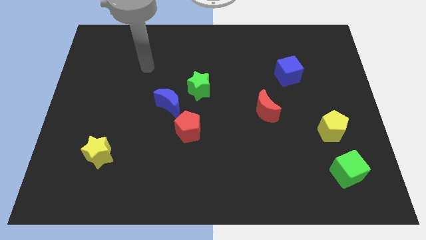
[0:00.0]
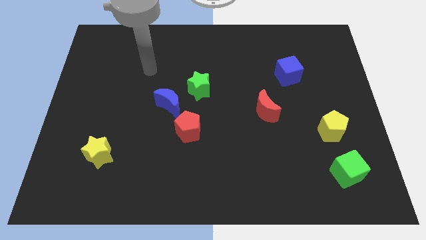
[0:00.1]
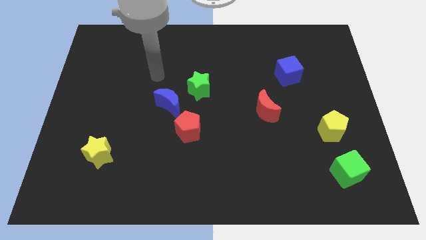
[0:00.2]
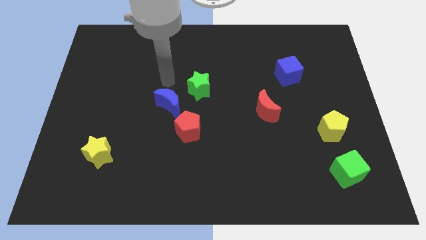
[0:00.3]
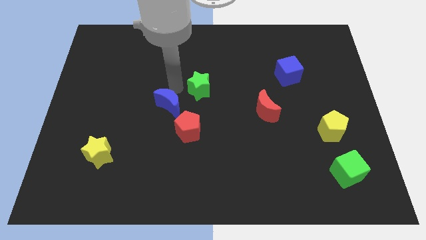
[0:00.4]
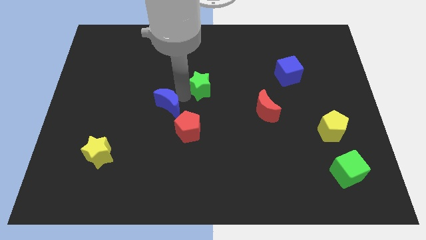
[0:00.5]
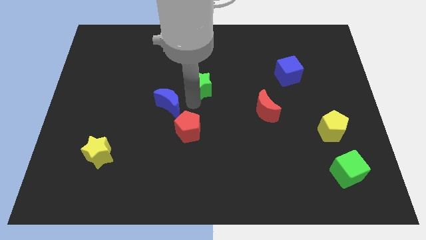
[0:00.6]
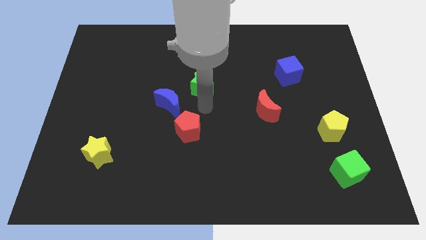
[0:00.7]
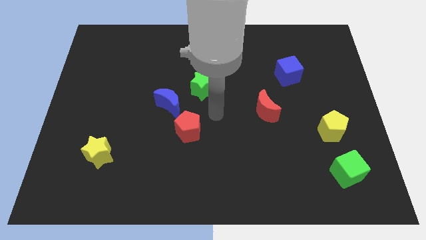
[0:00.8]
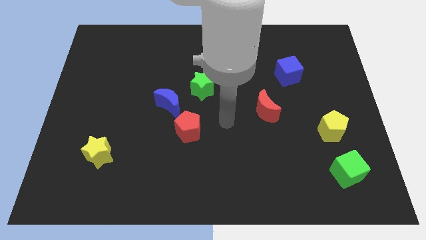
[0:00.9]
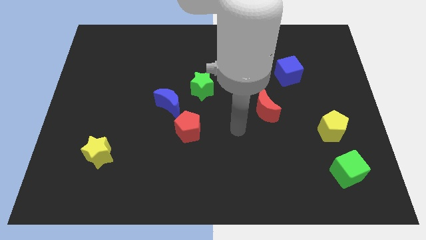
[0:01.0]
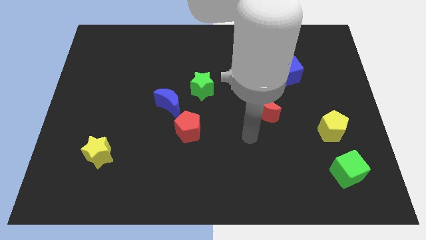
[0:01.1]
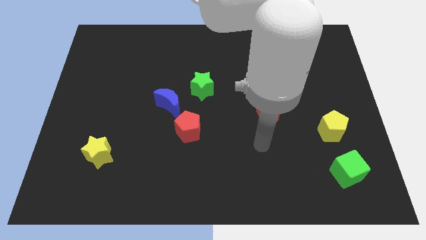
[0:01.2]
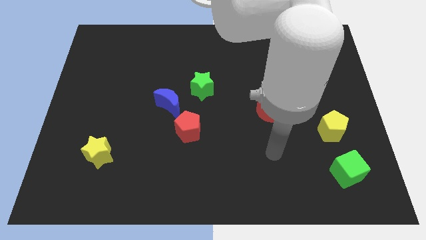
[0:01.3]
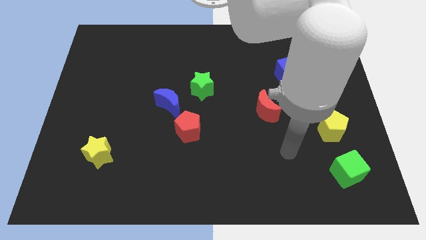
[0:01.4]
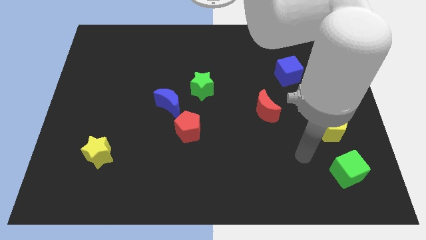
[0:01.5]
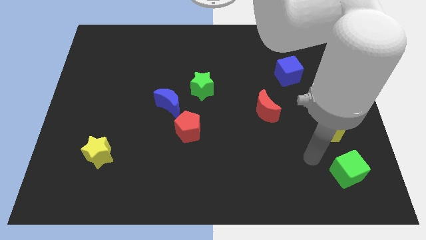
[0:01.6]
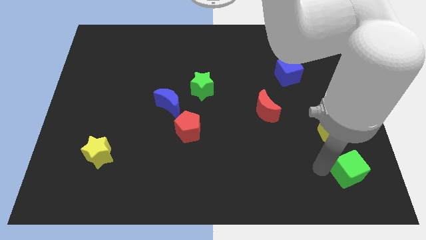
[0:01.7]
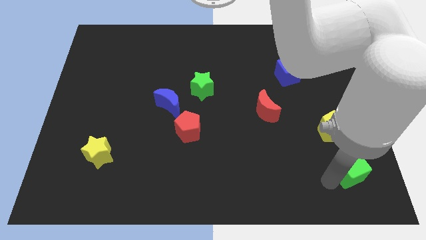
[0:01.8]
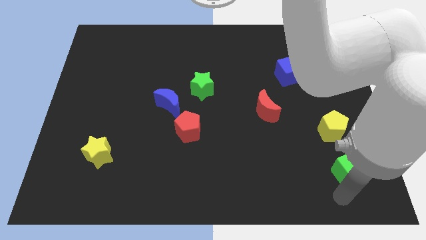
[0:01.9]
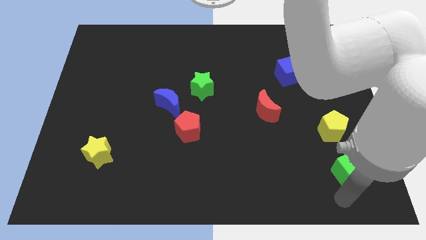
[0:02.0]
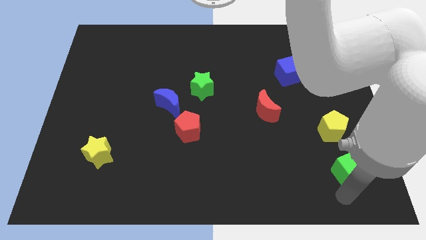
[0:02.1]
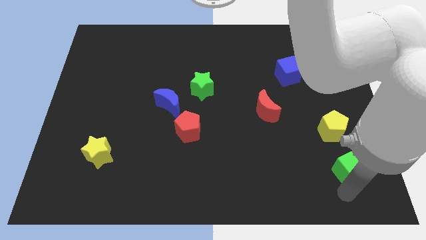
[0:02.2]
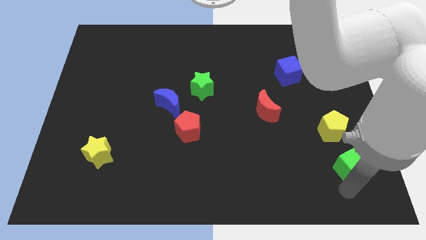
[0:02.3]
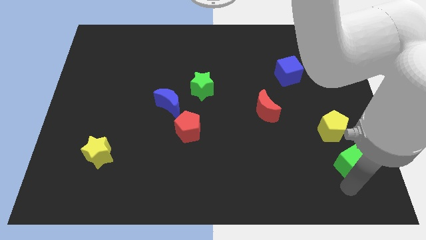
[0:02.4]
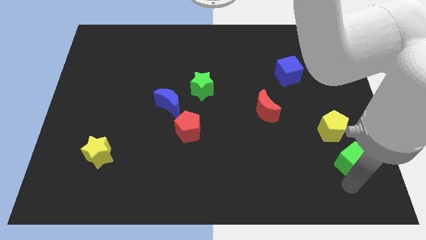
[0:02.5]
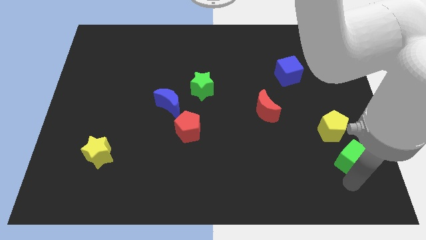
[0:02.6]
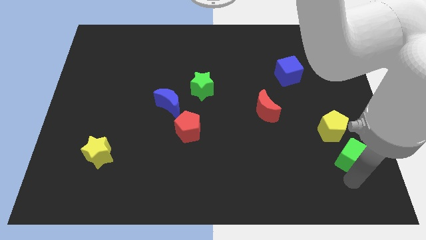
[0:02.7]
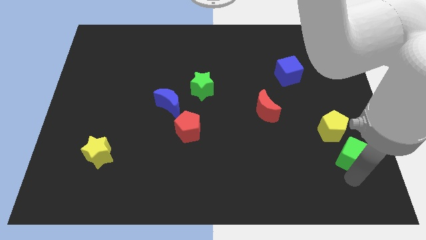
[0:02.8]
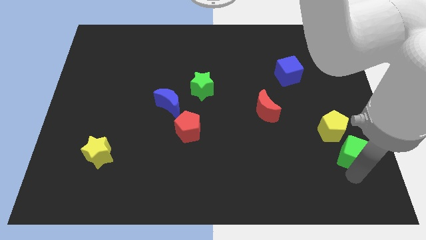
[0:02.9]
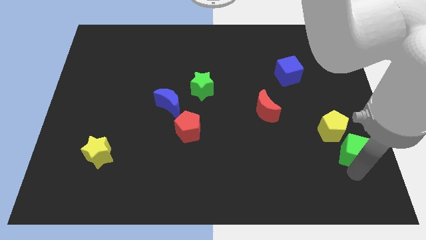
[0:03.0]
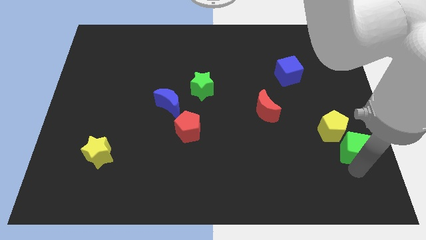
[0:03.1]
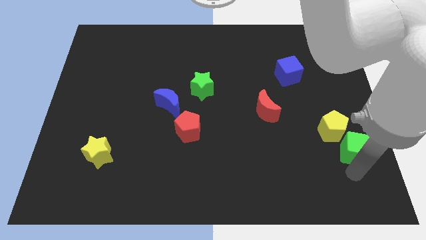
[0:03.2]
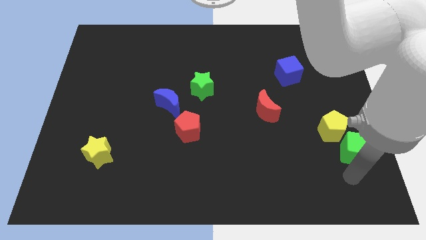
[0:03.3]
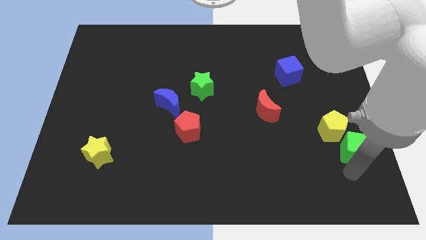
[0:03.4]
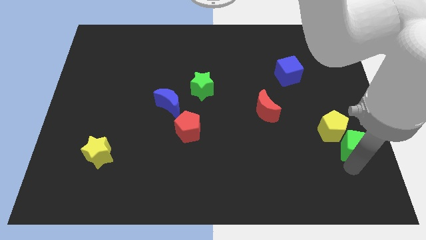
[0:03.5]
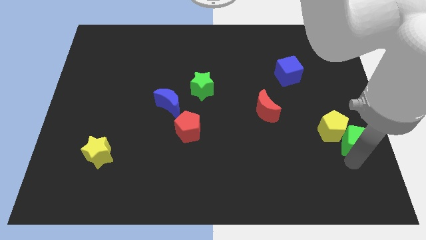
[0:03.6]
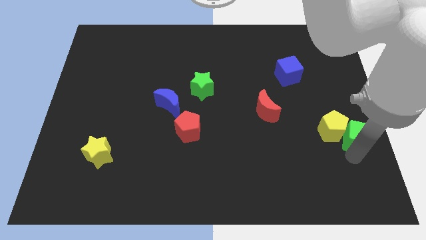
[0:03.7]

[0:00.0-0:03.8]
slide the green cube a little up

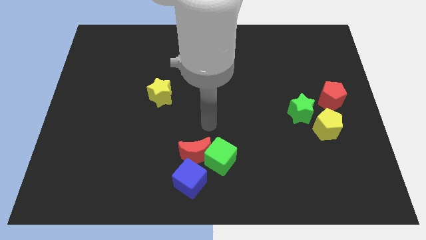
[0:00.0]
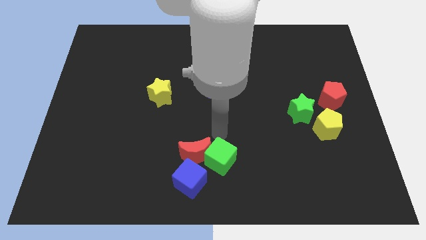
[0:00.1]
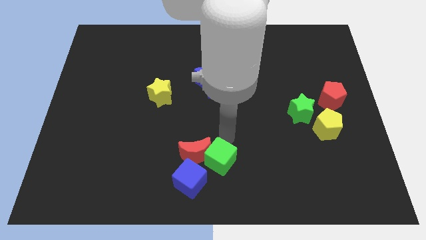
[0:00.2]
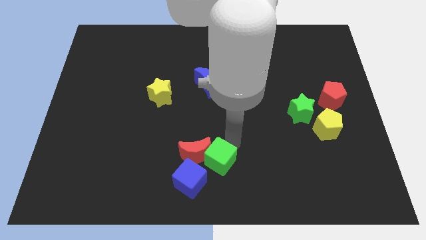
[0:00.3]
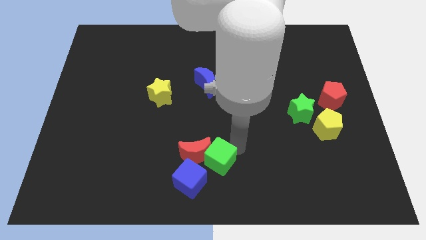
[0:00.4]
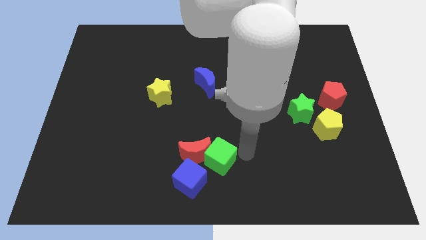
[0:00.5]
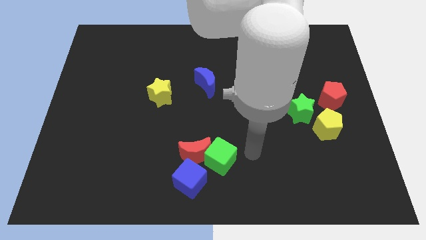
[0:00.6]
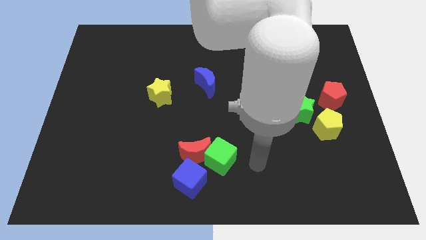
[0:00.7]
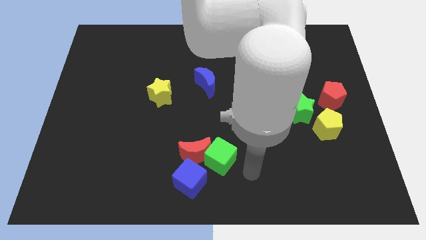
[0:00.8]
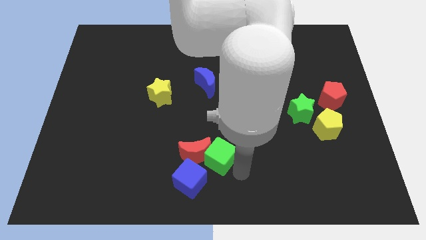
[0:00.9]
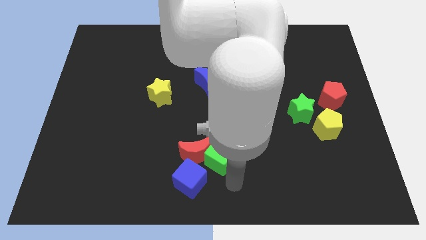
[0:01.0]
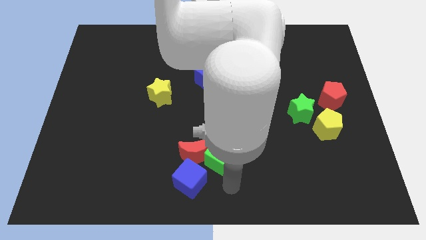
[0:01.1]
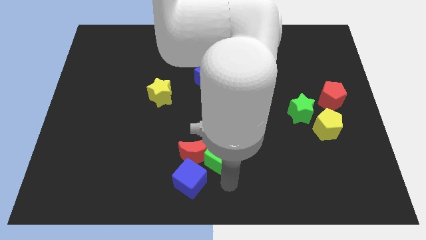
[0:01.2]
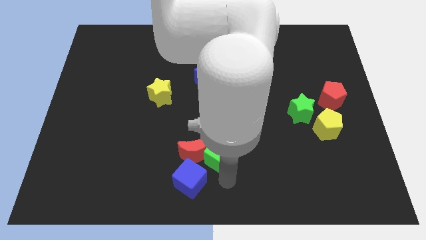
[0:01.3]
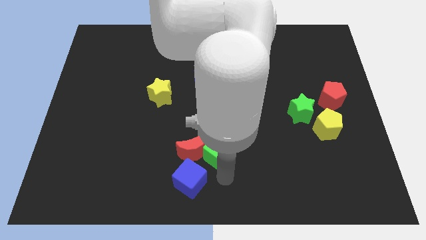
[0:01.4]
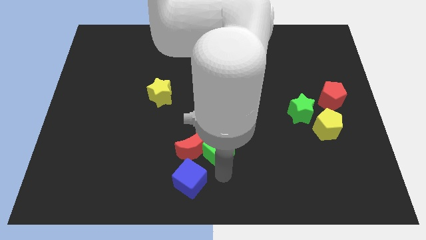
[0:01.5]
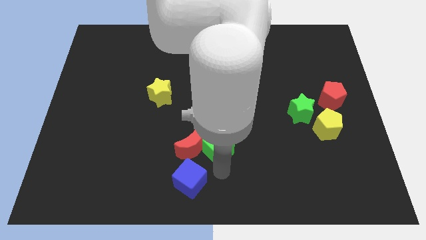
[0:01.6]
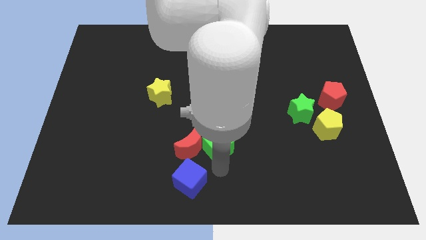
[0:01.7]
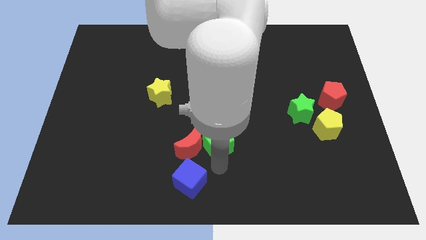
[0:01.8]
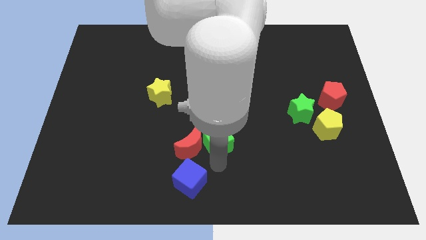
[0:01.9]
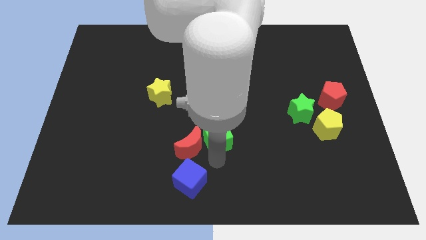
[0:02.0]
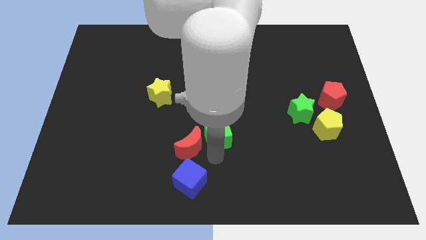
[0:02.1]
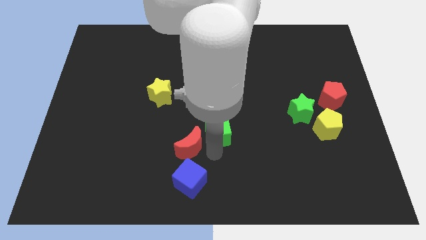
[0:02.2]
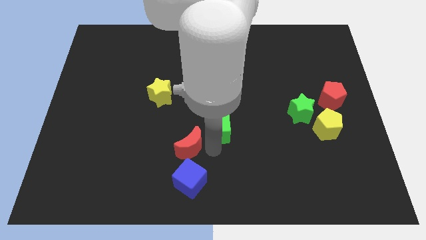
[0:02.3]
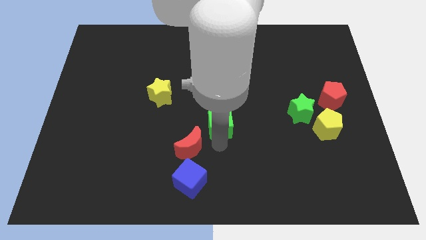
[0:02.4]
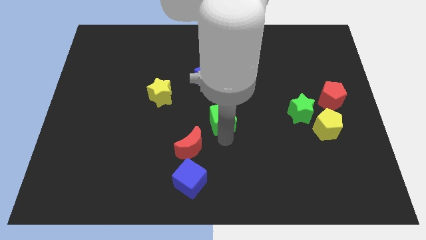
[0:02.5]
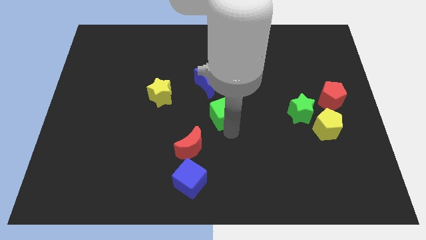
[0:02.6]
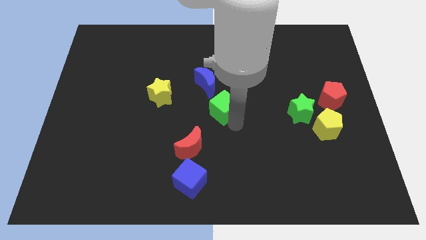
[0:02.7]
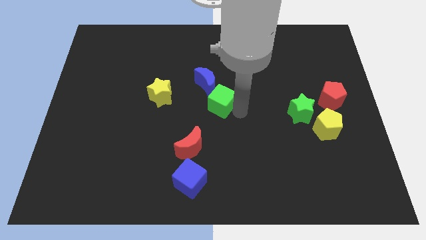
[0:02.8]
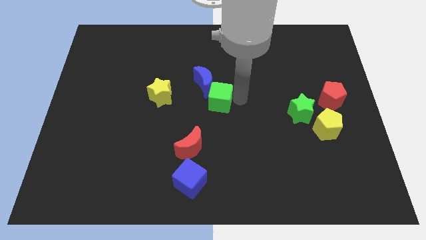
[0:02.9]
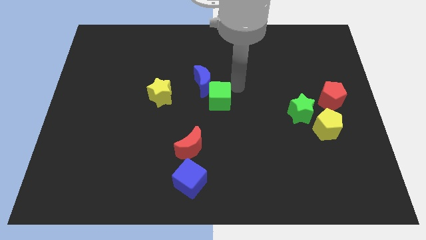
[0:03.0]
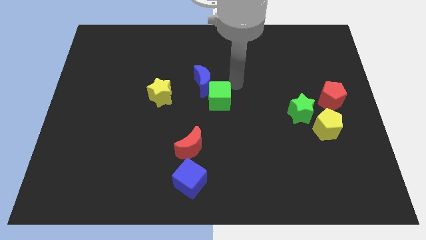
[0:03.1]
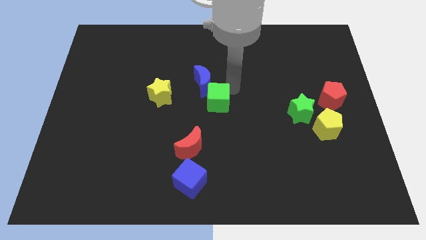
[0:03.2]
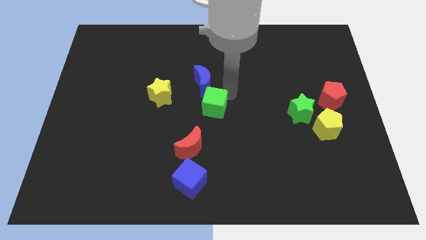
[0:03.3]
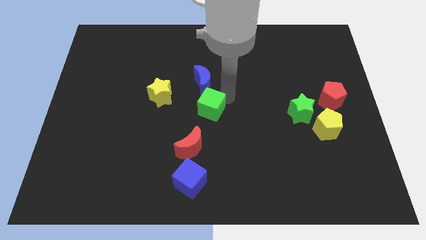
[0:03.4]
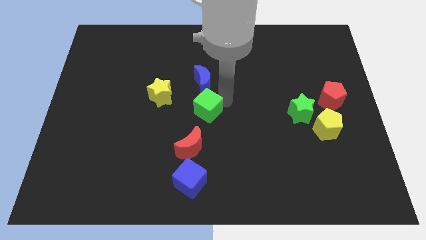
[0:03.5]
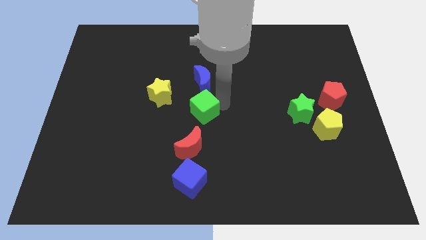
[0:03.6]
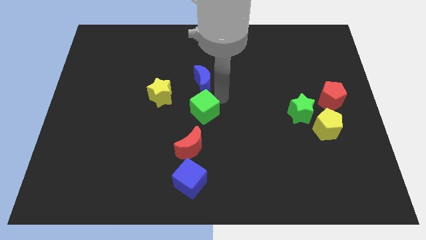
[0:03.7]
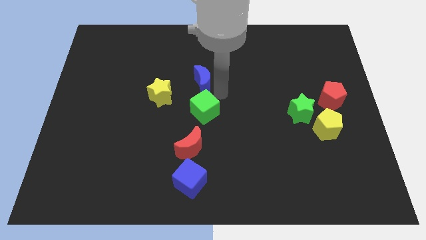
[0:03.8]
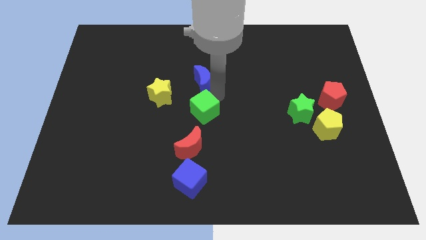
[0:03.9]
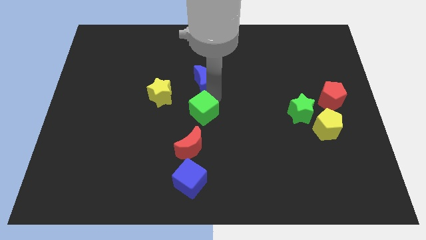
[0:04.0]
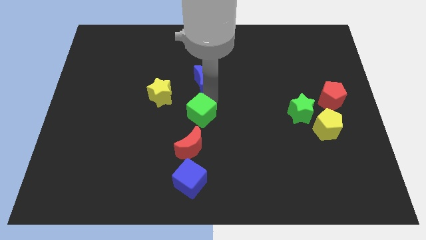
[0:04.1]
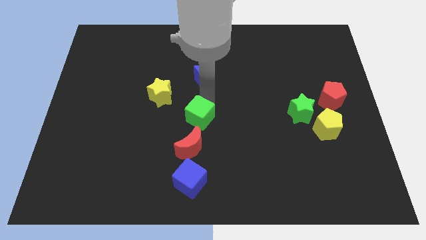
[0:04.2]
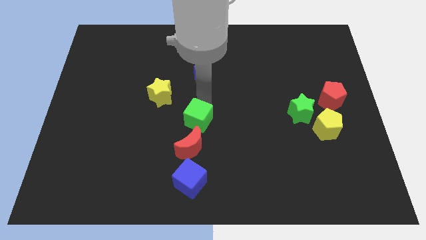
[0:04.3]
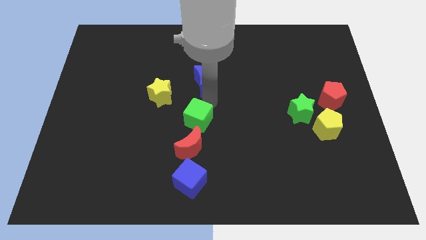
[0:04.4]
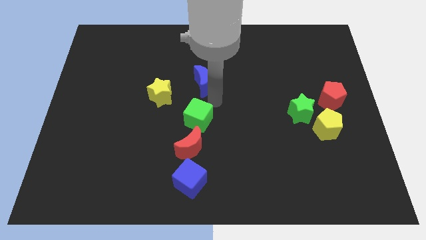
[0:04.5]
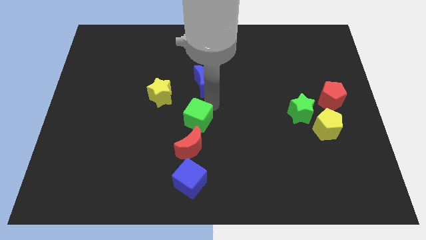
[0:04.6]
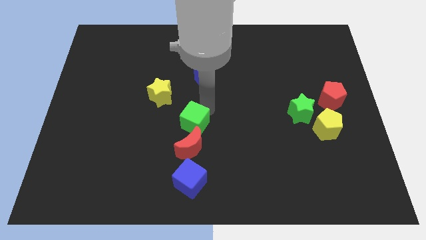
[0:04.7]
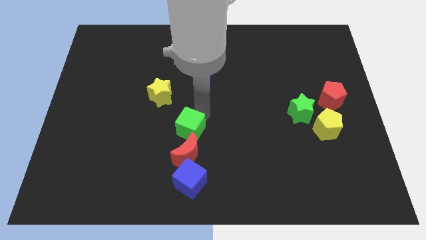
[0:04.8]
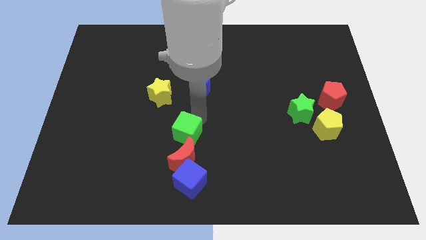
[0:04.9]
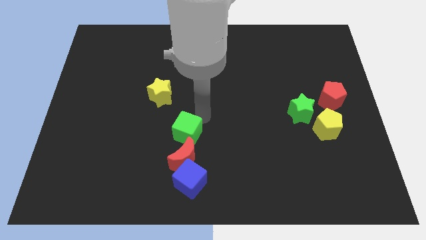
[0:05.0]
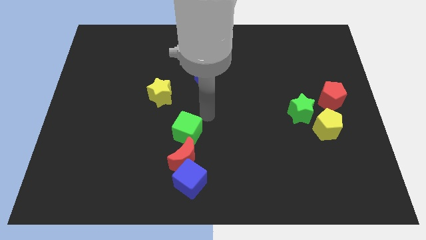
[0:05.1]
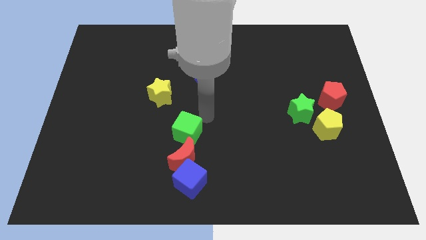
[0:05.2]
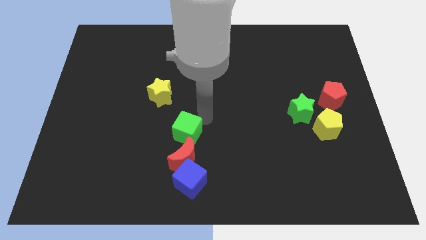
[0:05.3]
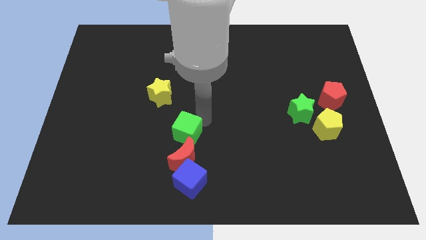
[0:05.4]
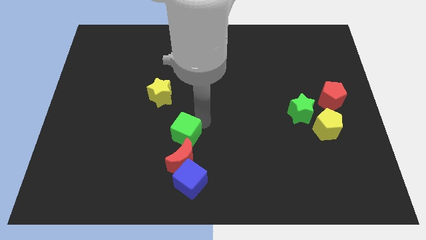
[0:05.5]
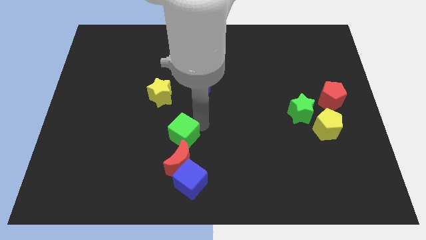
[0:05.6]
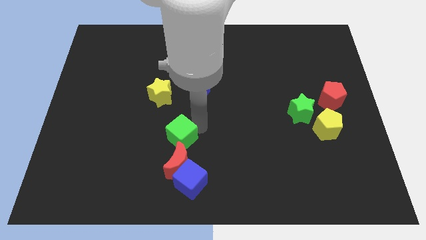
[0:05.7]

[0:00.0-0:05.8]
move the green cube slightly left
